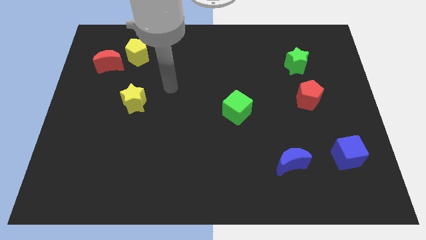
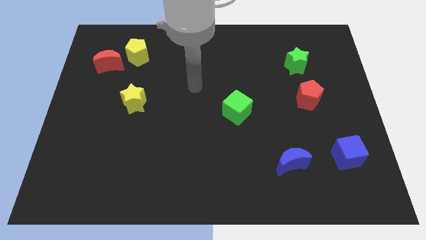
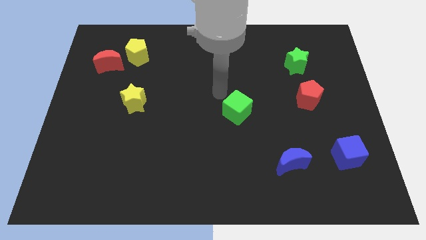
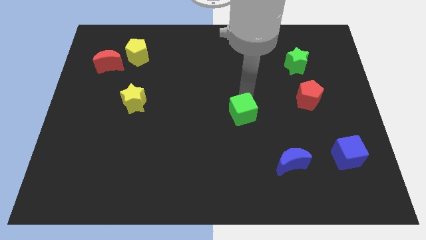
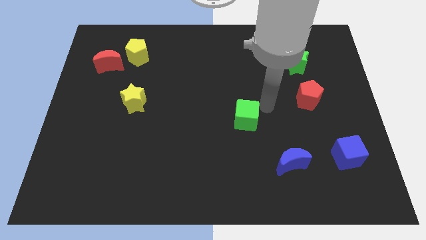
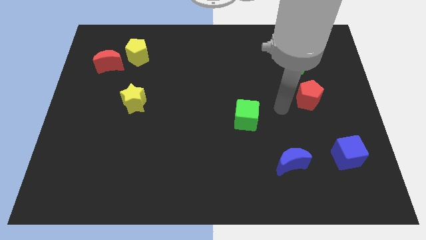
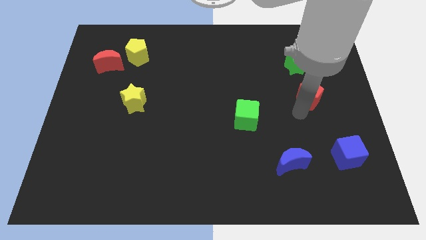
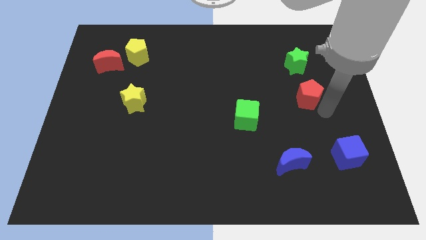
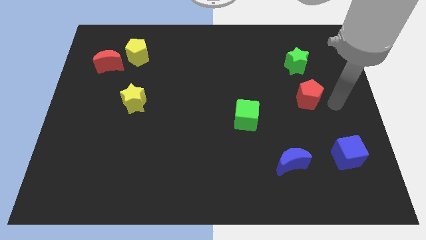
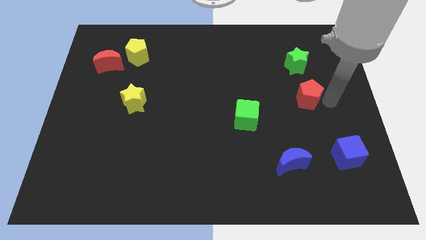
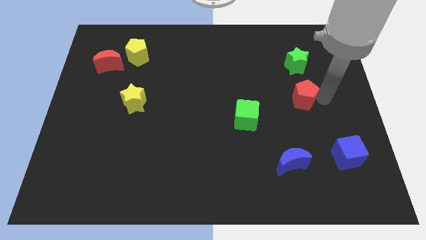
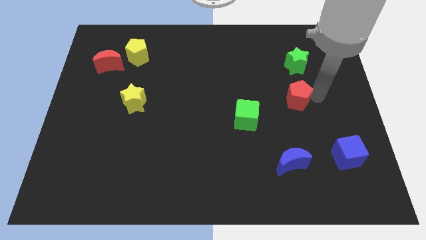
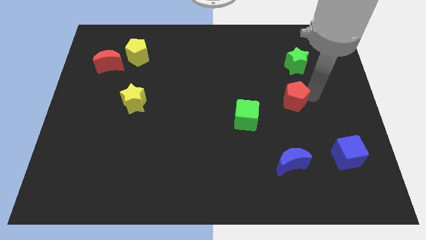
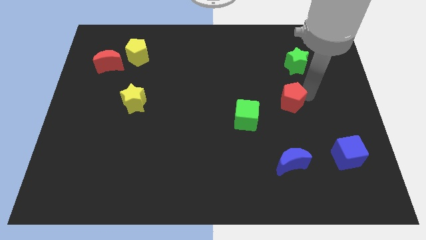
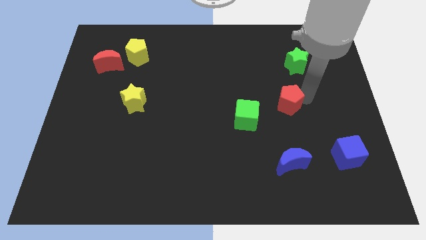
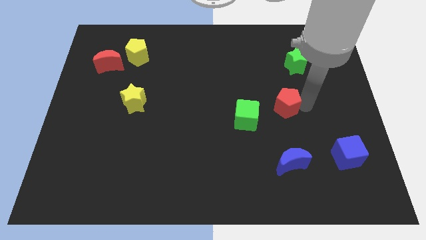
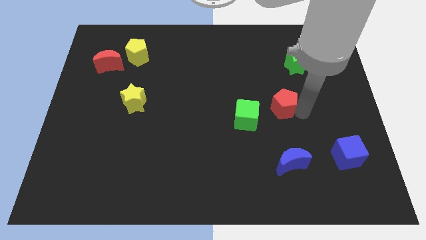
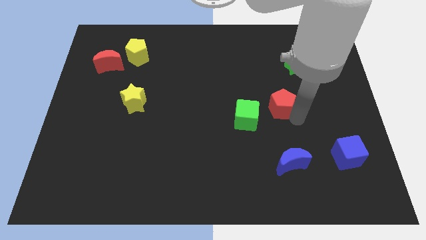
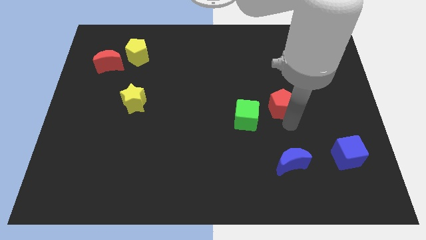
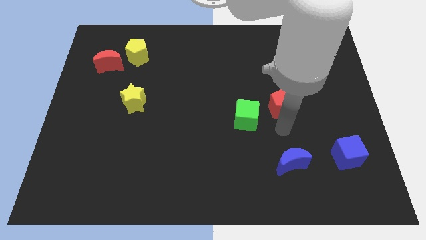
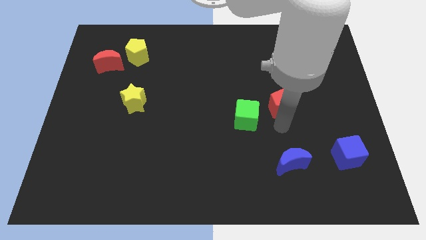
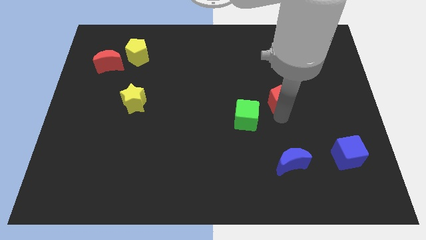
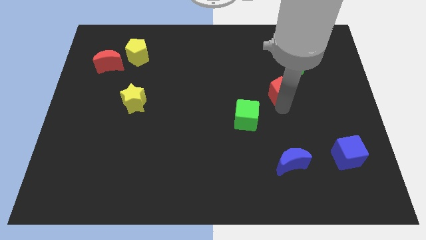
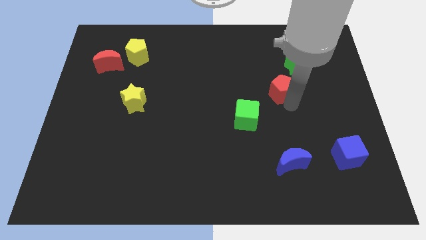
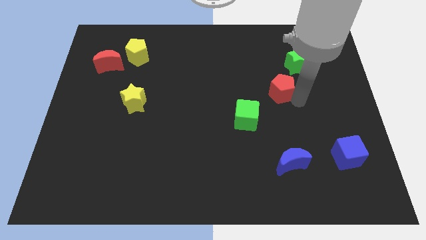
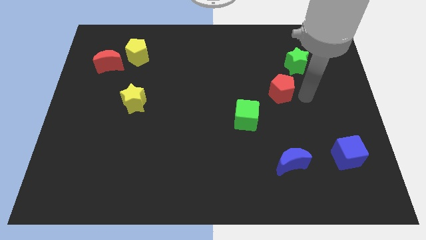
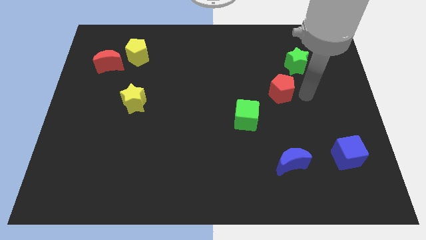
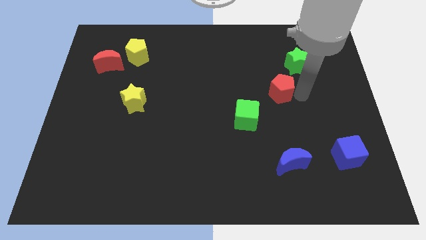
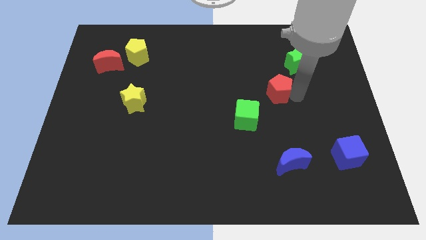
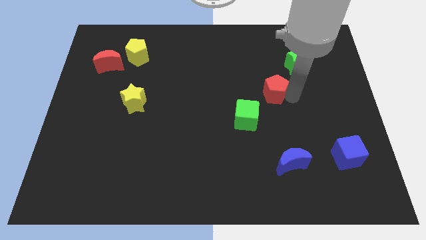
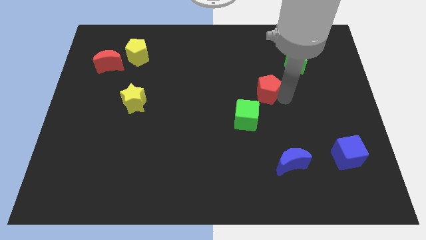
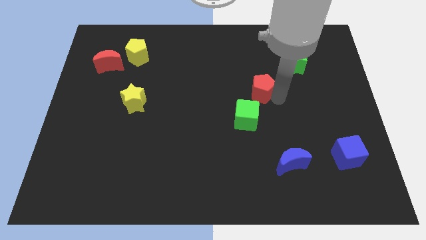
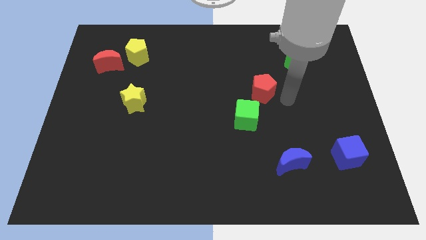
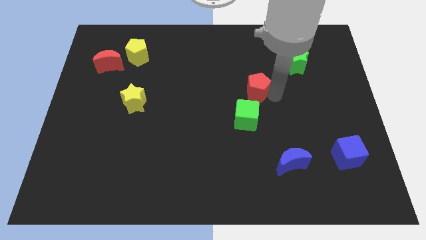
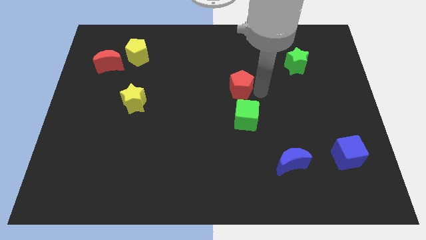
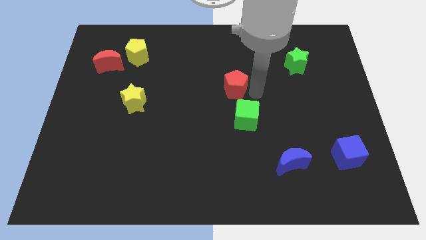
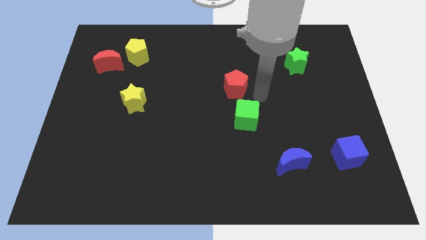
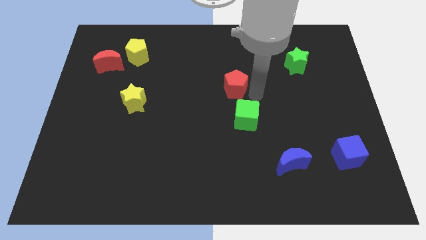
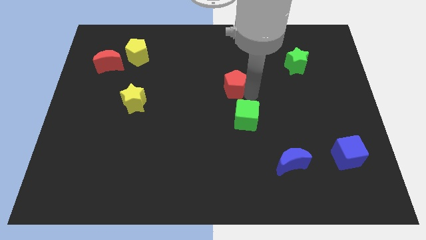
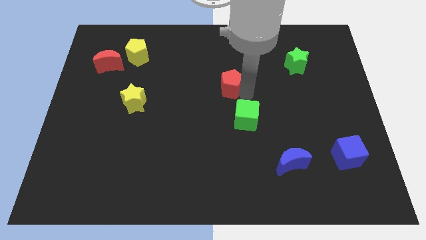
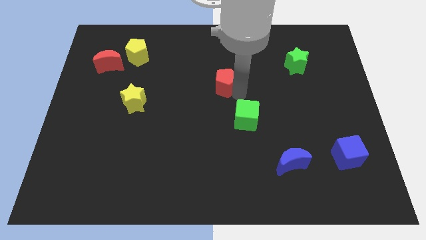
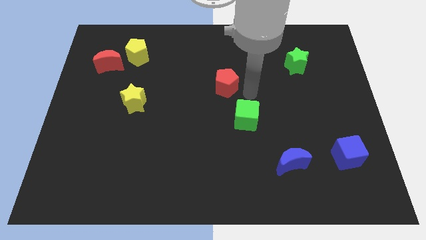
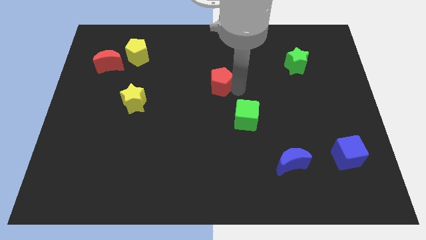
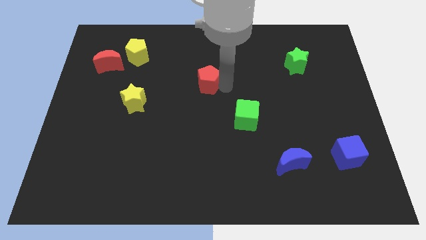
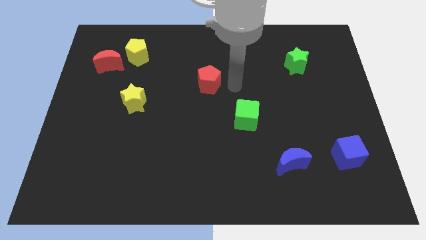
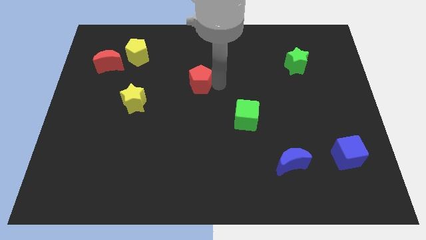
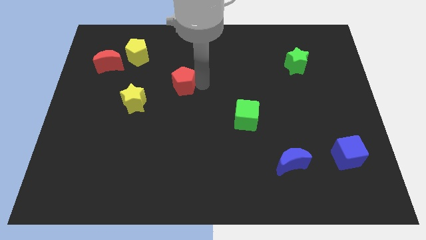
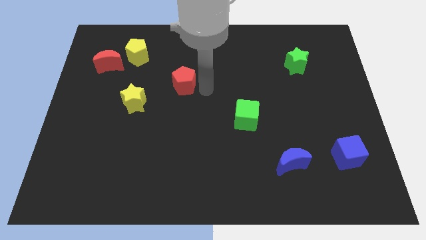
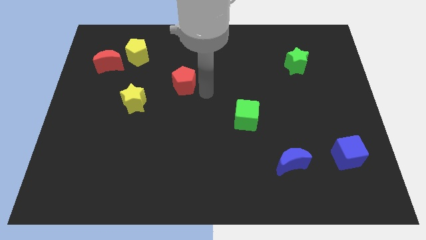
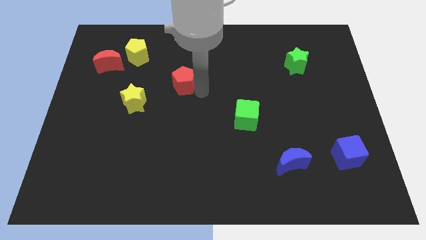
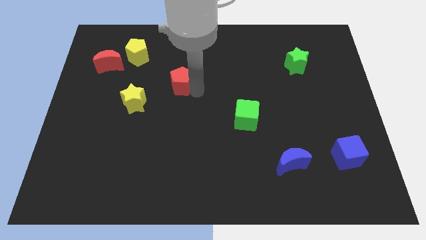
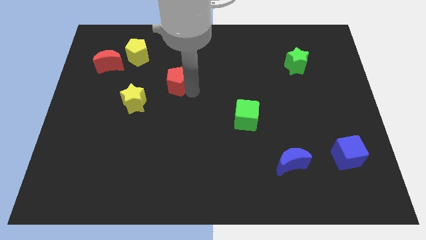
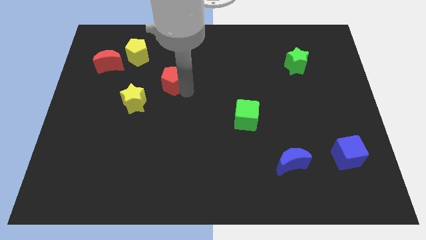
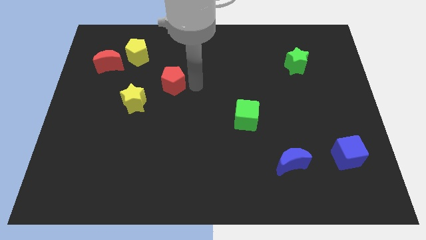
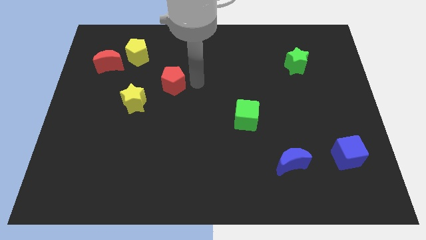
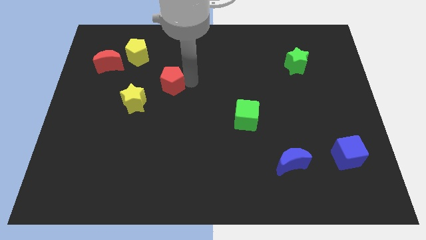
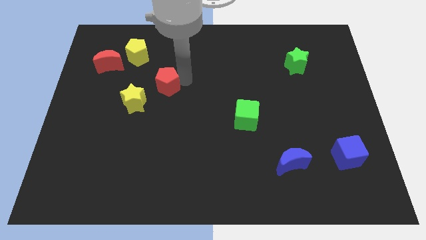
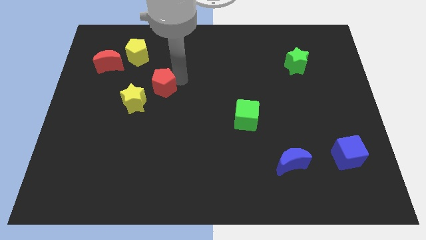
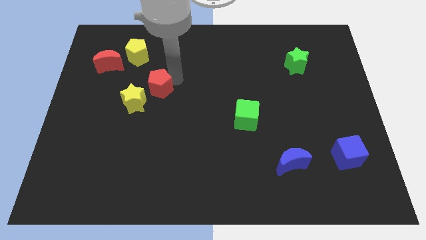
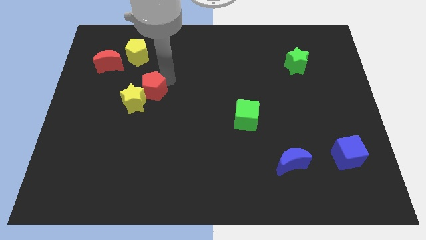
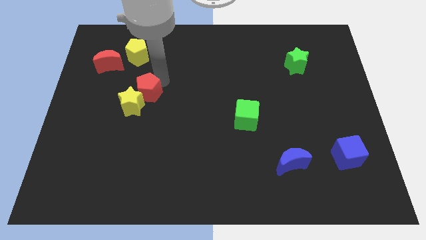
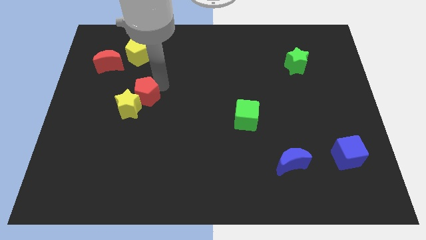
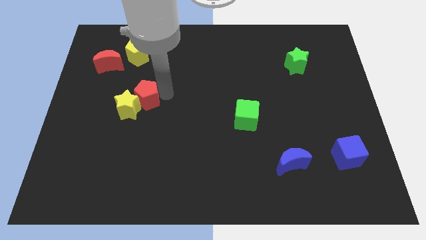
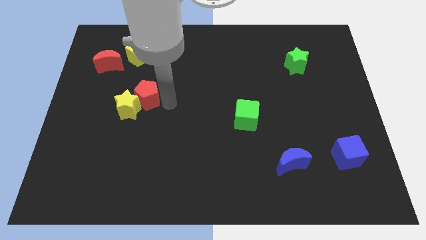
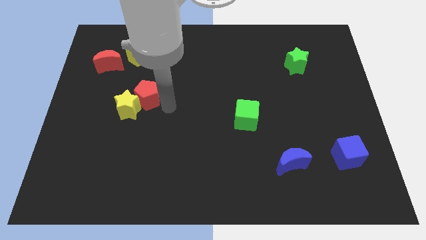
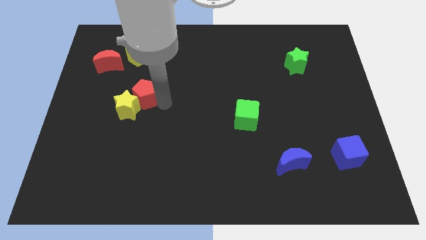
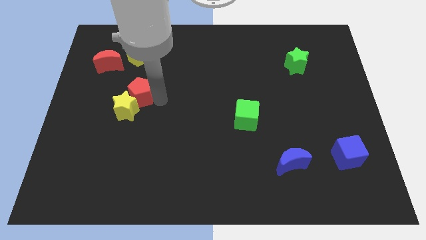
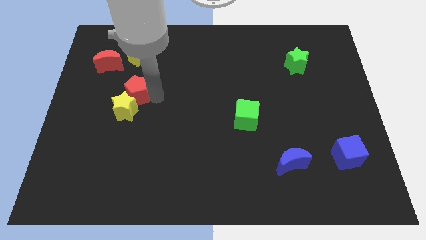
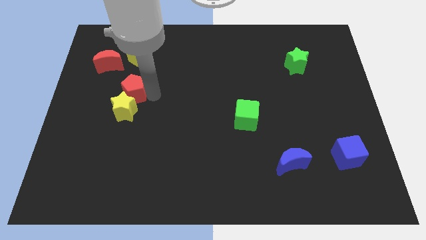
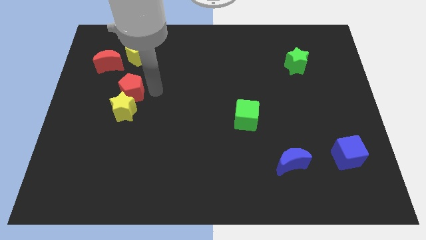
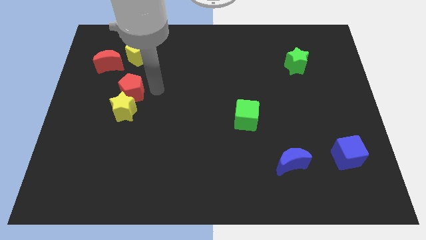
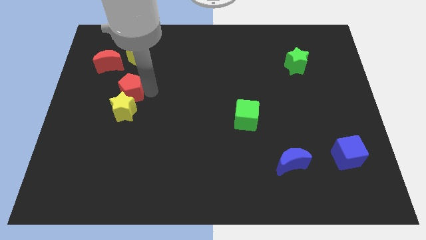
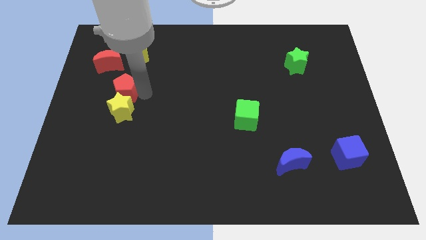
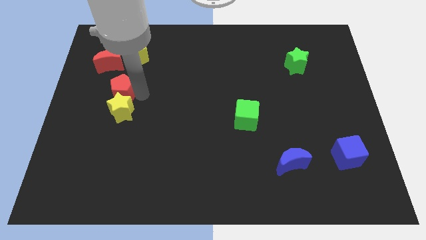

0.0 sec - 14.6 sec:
put the red pentagon to the bottom side of the red moon

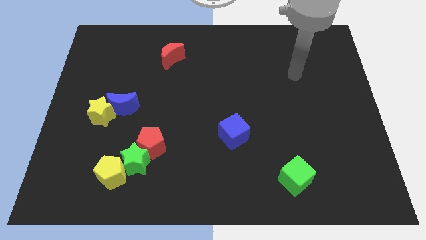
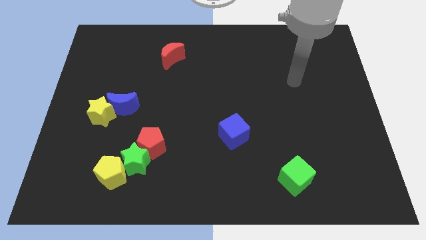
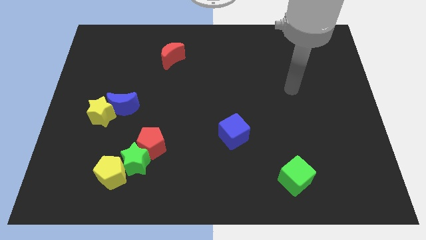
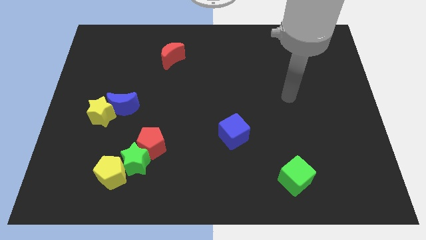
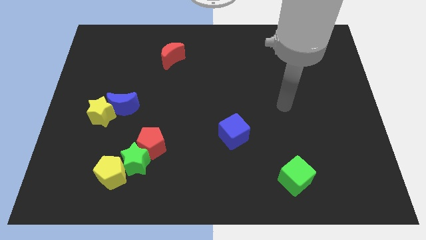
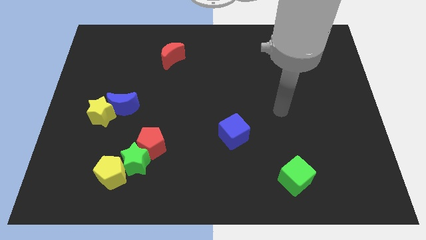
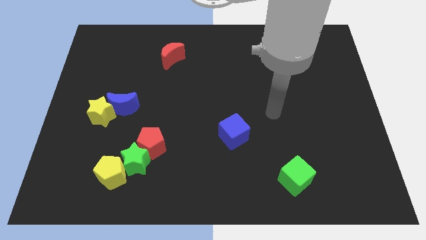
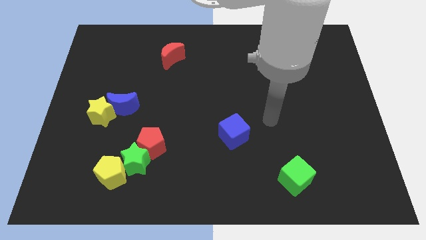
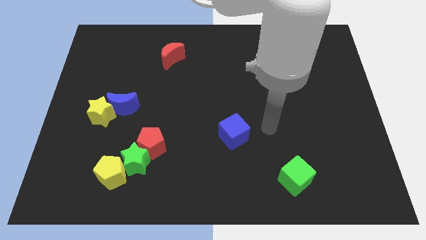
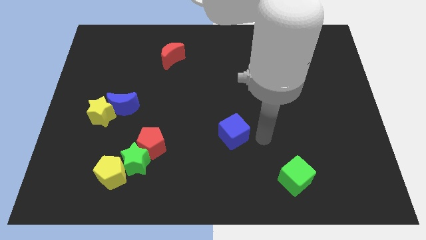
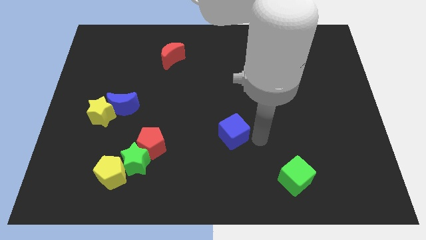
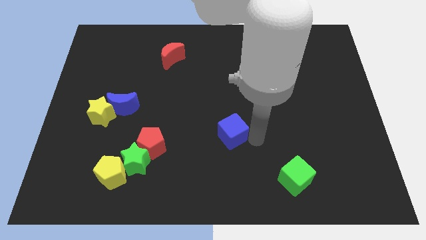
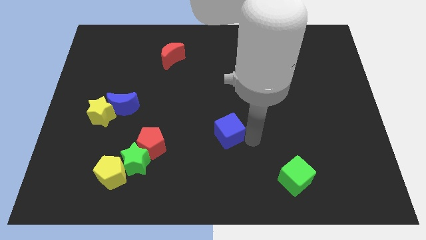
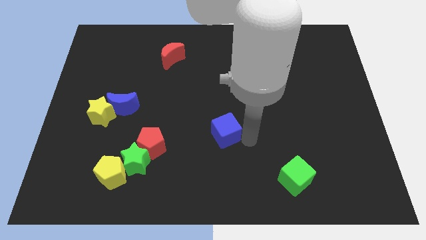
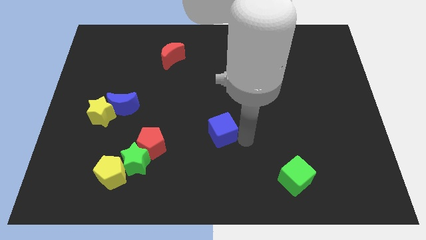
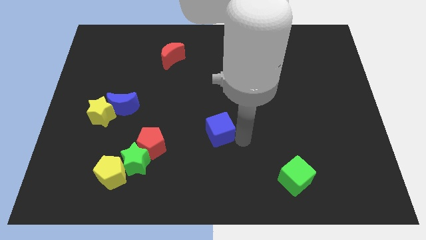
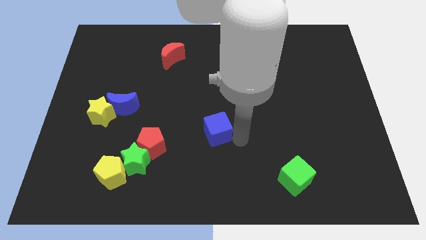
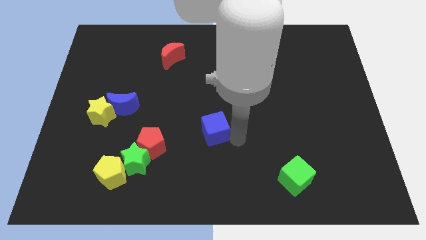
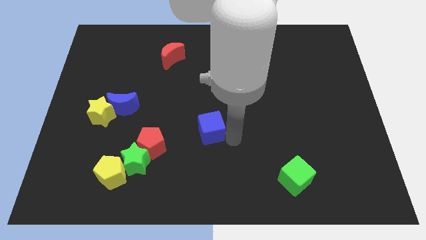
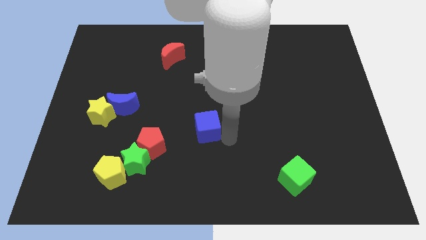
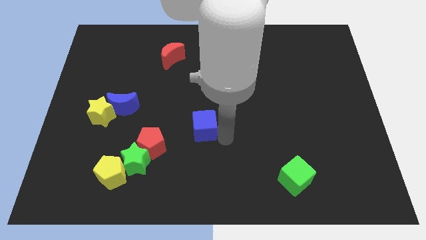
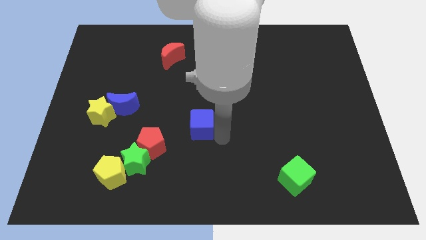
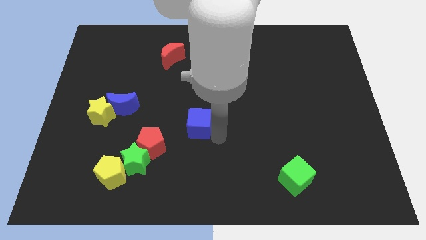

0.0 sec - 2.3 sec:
push the blue cube to the top right side of the red pentagon
